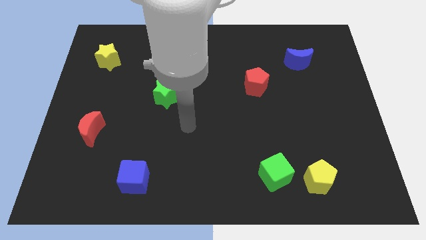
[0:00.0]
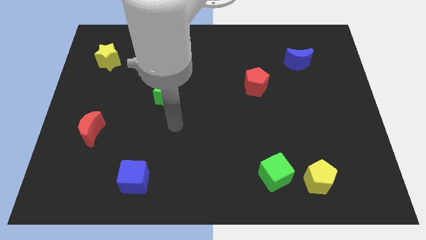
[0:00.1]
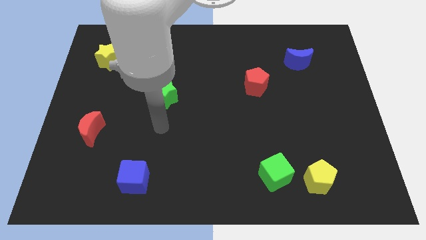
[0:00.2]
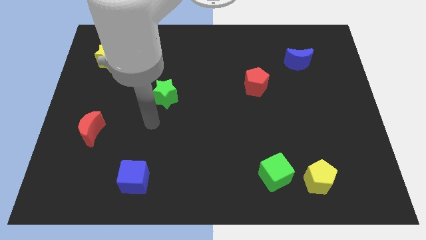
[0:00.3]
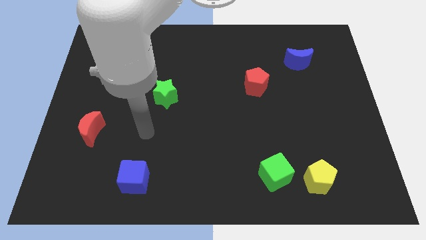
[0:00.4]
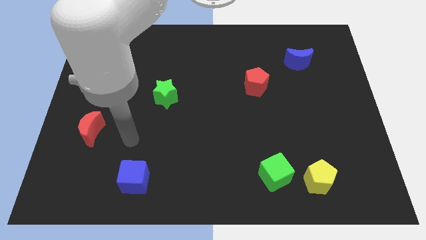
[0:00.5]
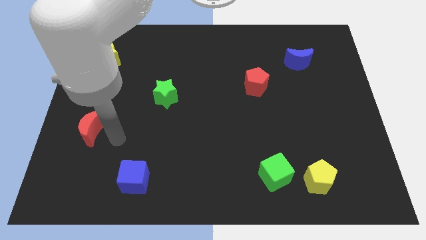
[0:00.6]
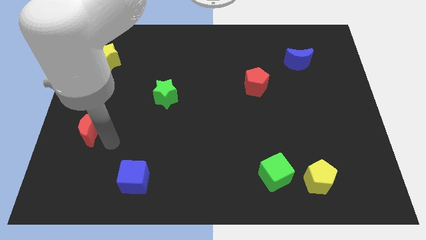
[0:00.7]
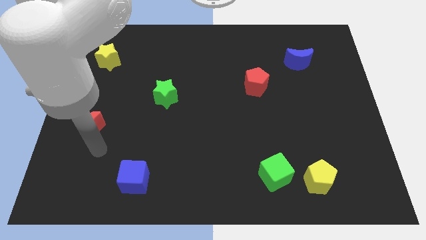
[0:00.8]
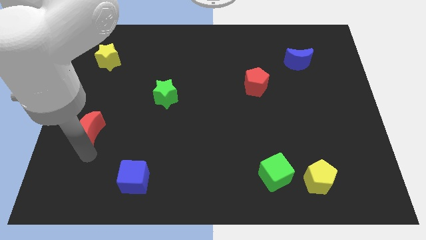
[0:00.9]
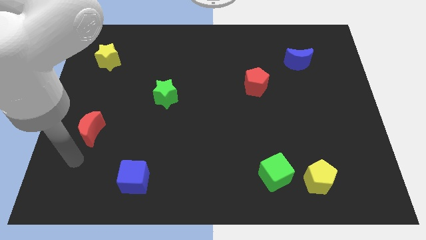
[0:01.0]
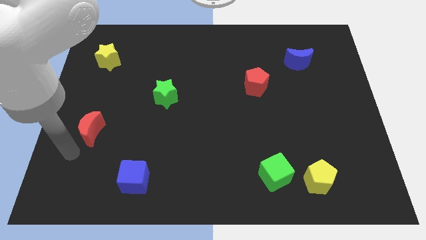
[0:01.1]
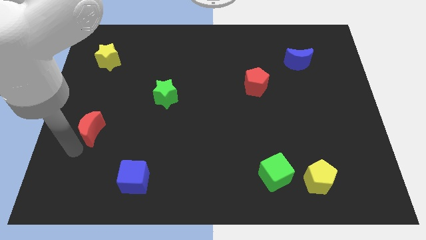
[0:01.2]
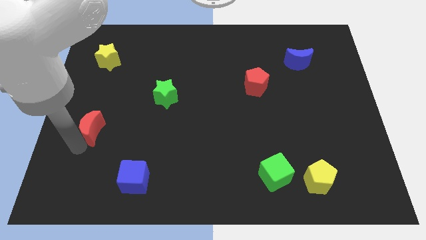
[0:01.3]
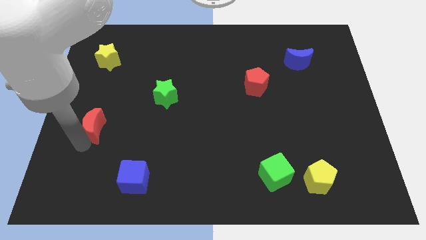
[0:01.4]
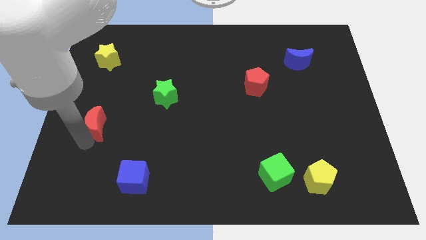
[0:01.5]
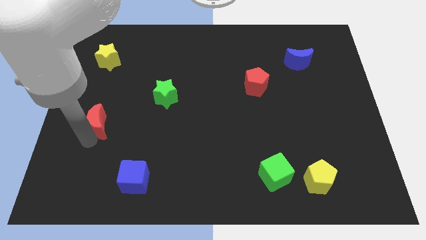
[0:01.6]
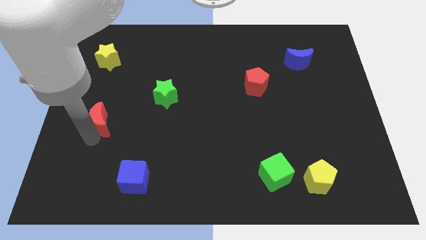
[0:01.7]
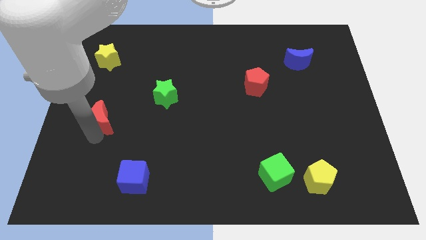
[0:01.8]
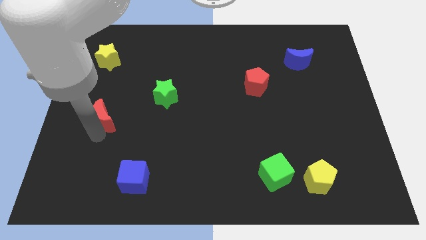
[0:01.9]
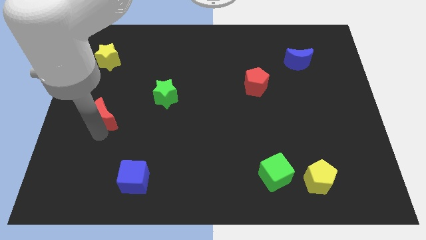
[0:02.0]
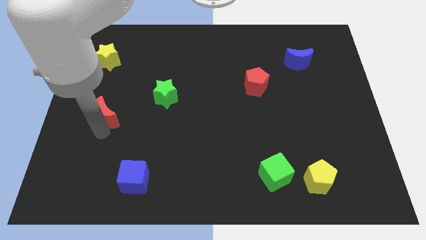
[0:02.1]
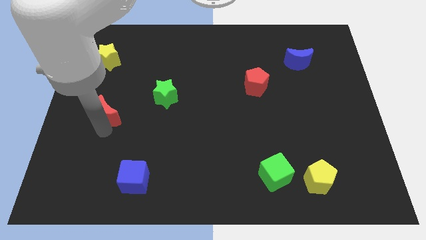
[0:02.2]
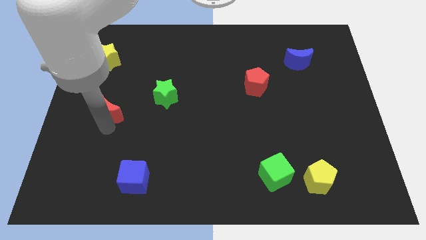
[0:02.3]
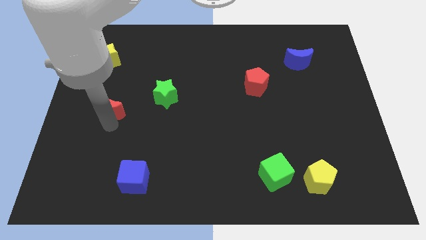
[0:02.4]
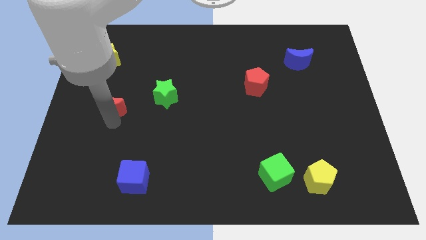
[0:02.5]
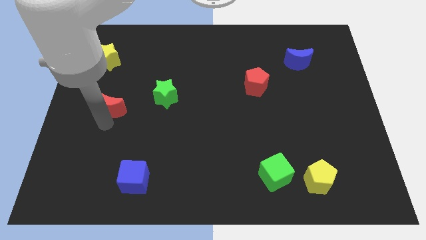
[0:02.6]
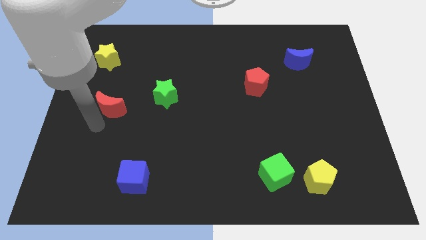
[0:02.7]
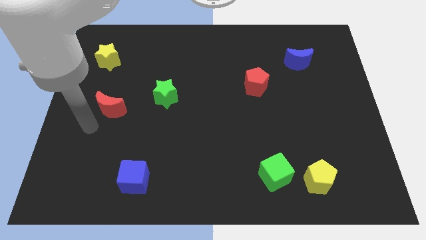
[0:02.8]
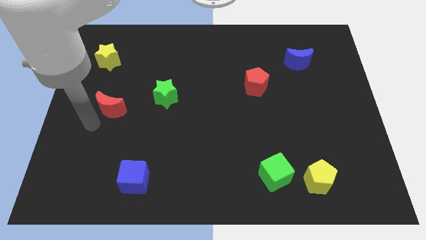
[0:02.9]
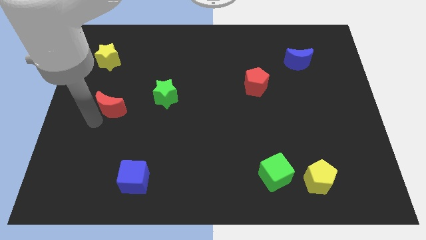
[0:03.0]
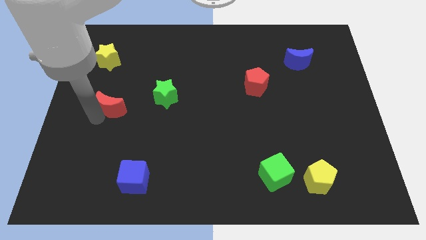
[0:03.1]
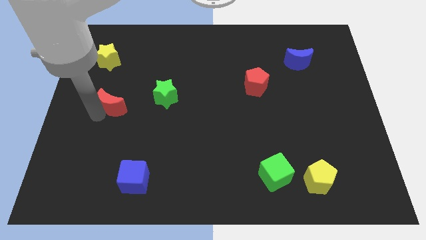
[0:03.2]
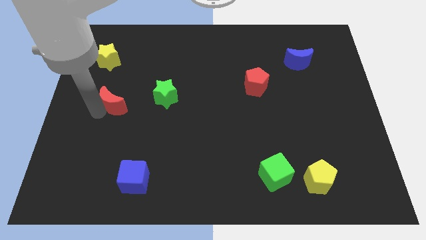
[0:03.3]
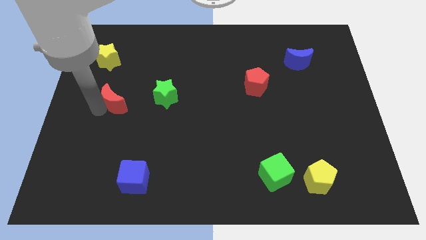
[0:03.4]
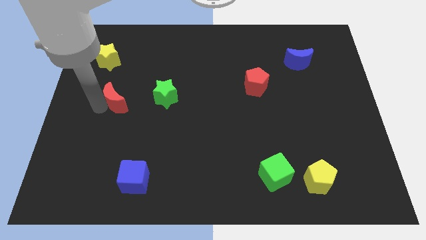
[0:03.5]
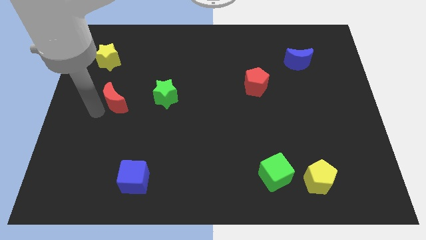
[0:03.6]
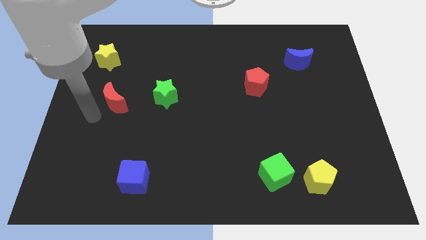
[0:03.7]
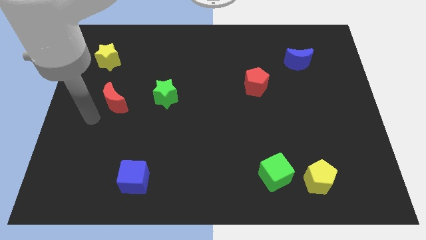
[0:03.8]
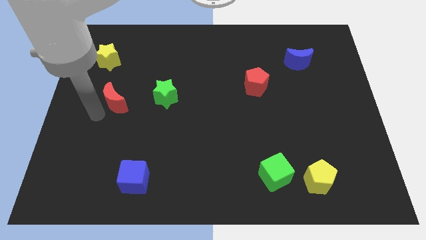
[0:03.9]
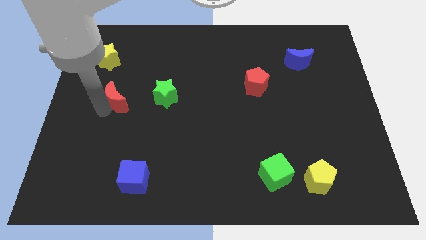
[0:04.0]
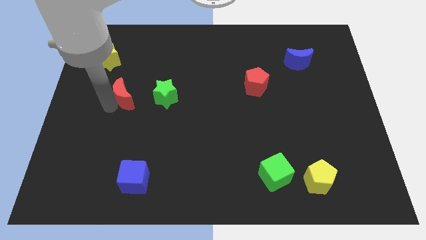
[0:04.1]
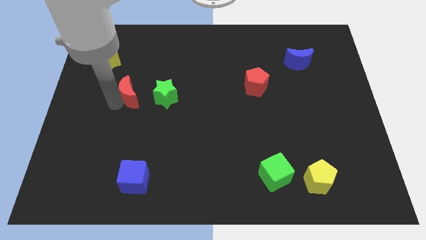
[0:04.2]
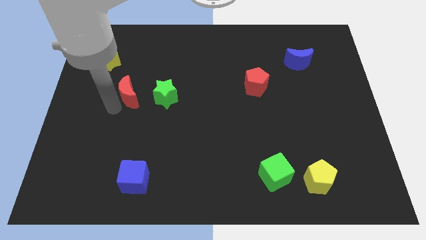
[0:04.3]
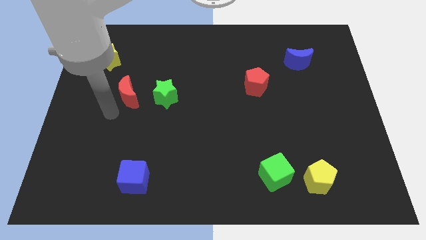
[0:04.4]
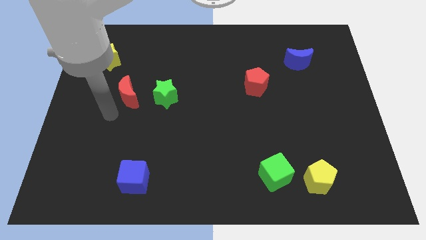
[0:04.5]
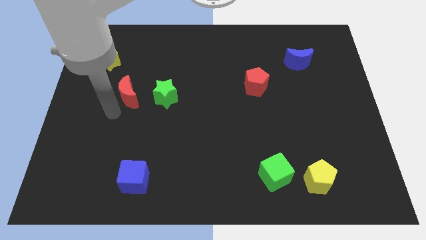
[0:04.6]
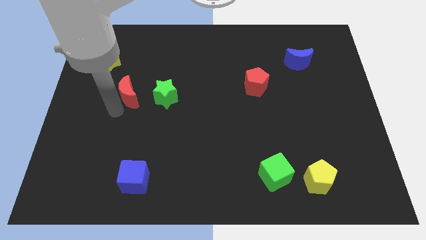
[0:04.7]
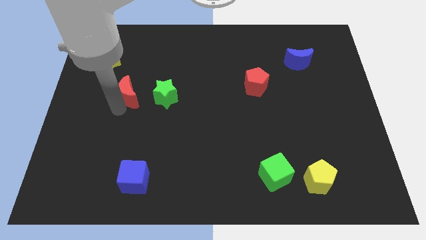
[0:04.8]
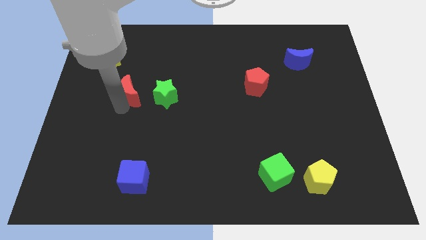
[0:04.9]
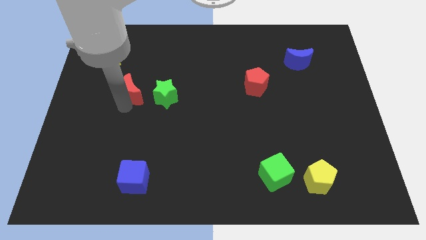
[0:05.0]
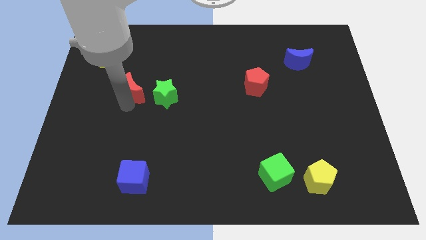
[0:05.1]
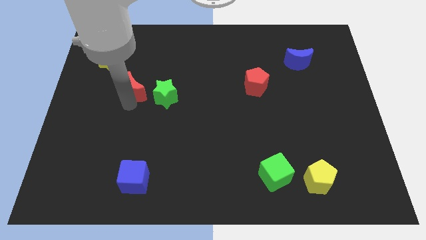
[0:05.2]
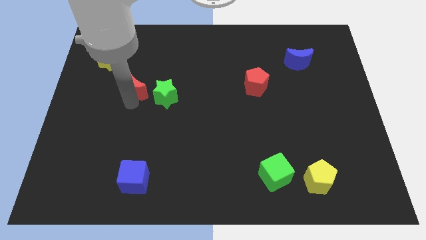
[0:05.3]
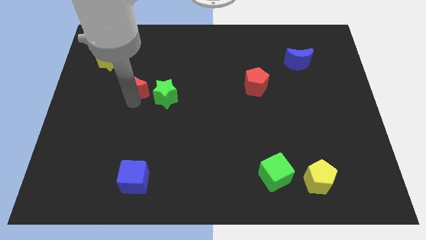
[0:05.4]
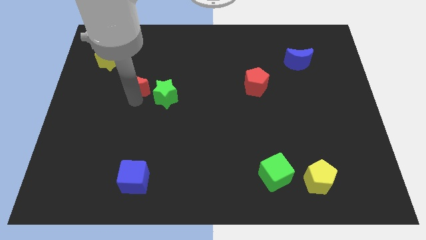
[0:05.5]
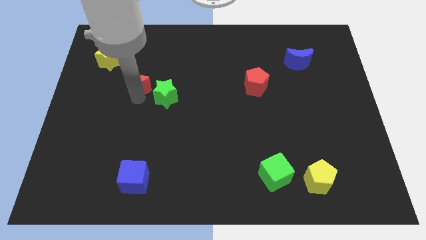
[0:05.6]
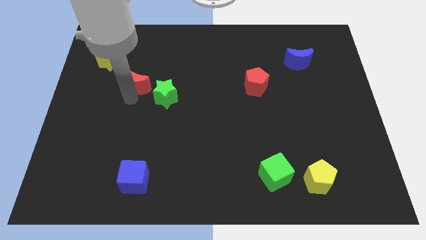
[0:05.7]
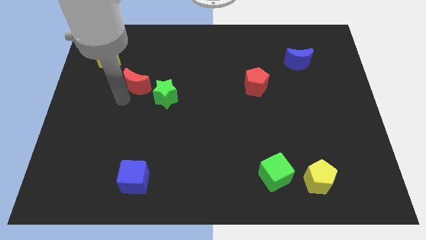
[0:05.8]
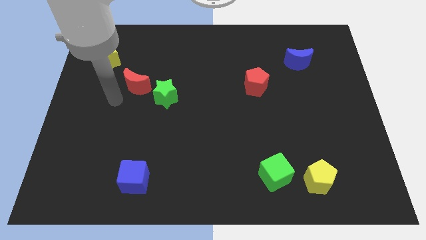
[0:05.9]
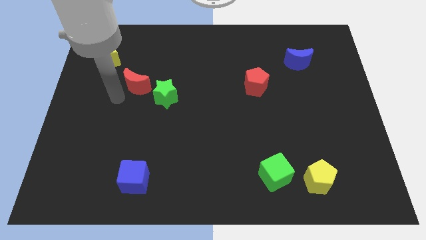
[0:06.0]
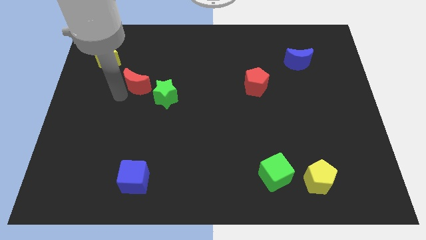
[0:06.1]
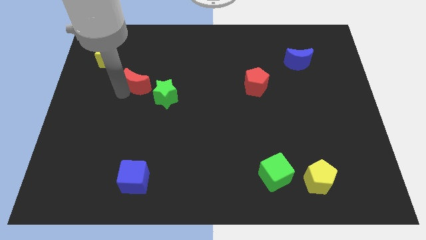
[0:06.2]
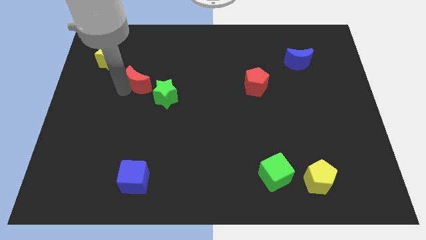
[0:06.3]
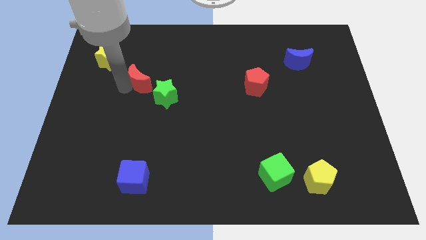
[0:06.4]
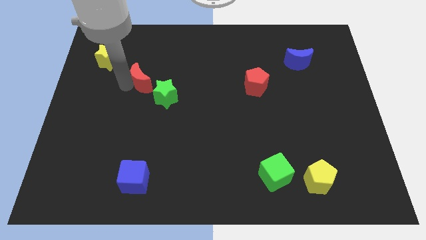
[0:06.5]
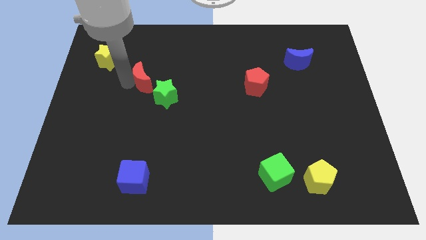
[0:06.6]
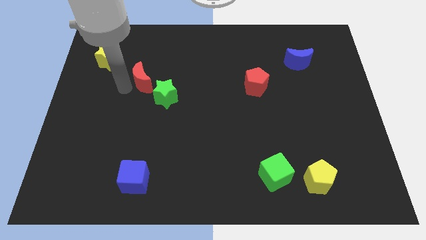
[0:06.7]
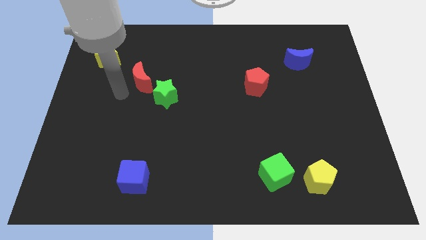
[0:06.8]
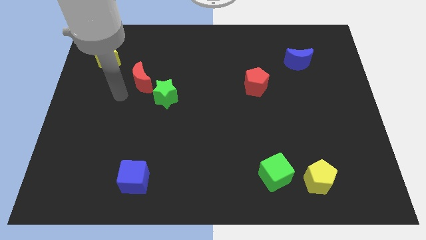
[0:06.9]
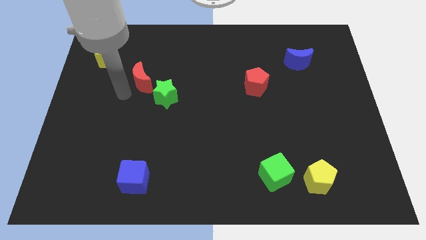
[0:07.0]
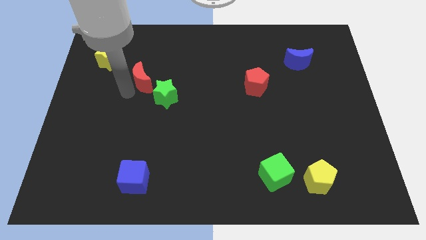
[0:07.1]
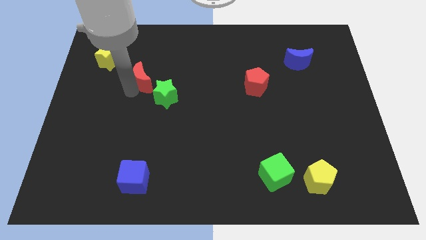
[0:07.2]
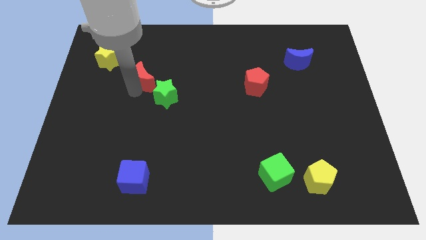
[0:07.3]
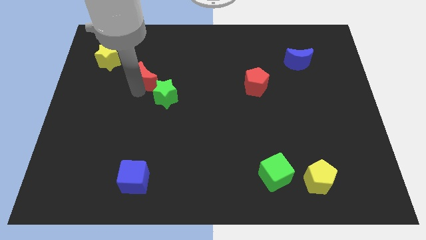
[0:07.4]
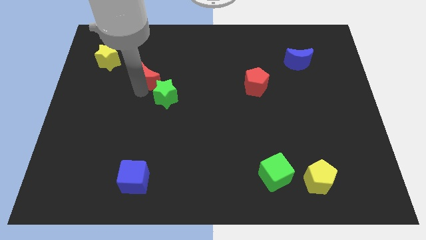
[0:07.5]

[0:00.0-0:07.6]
slide the red moon to the top side of the green star
